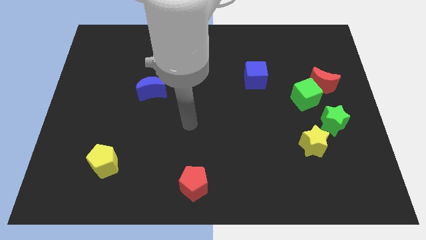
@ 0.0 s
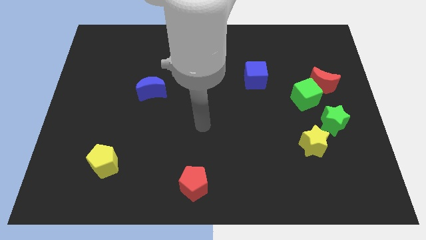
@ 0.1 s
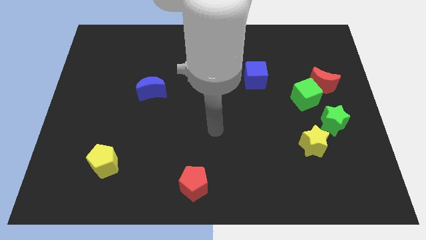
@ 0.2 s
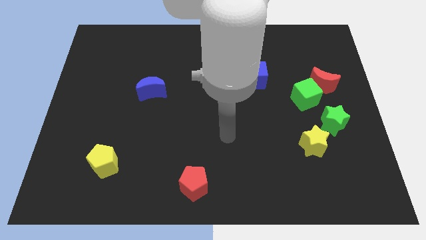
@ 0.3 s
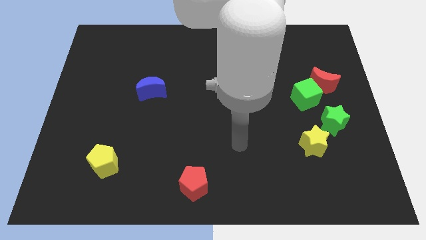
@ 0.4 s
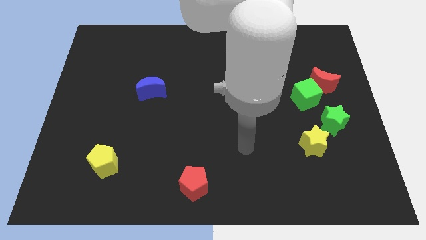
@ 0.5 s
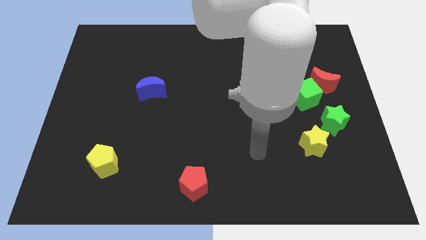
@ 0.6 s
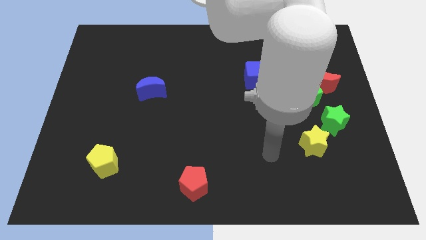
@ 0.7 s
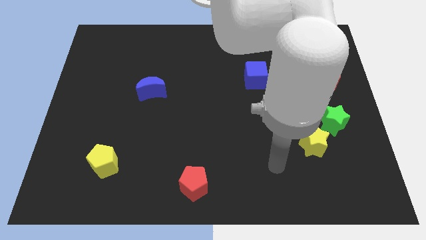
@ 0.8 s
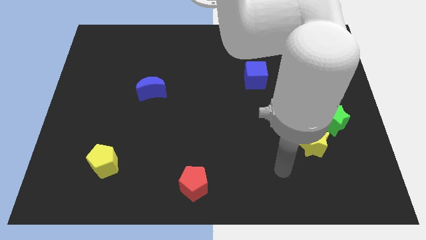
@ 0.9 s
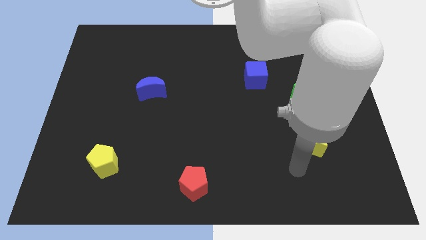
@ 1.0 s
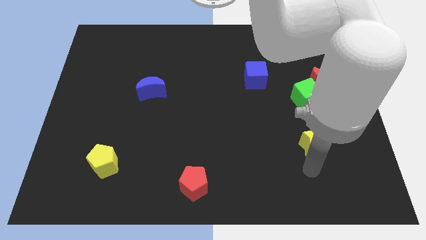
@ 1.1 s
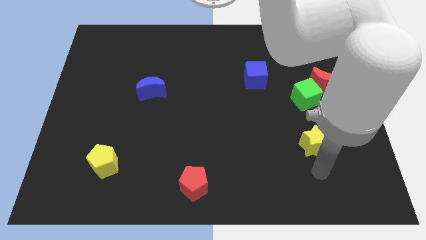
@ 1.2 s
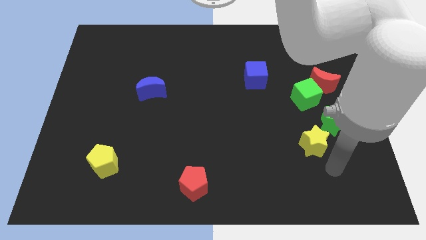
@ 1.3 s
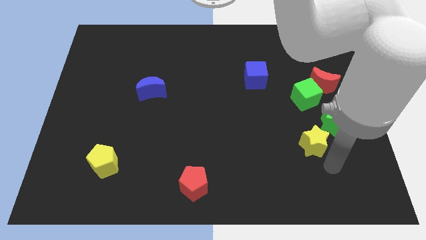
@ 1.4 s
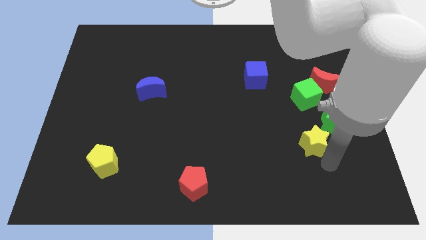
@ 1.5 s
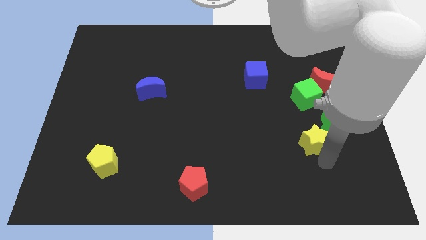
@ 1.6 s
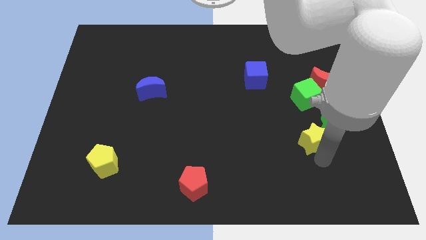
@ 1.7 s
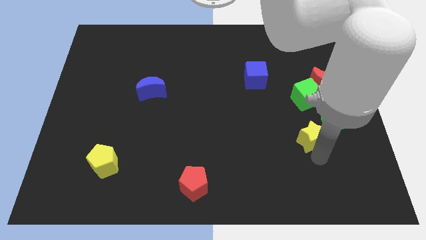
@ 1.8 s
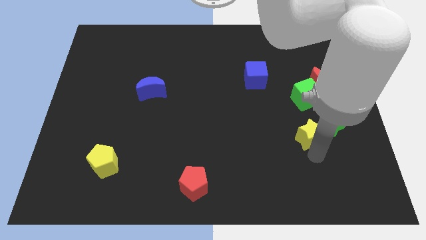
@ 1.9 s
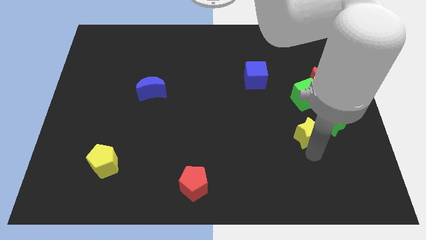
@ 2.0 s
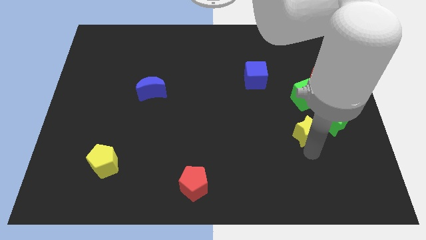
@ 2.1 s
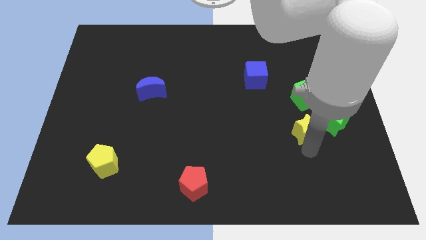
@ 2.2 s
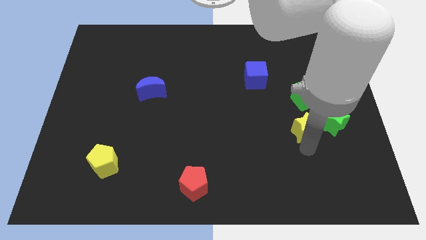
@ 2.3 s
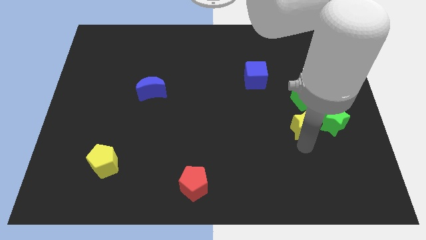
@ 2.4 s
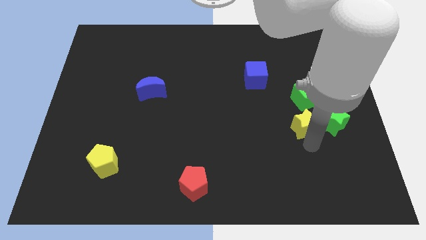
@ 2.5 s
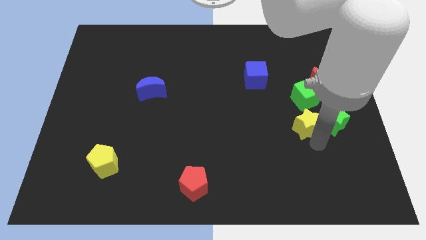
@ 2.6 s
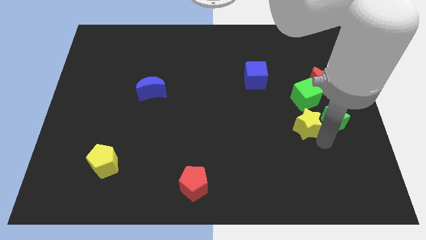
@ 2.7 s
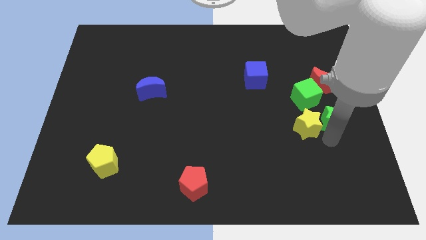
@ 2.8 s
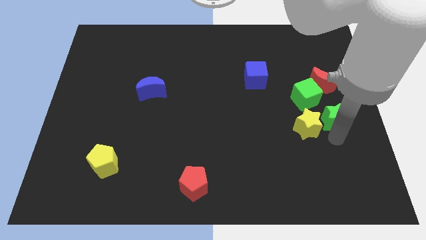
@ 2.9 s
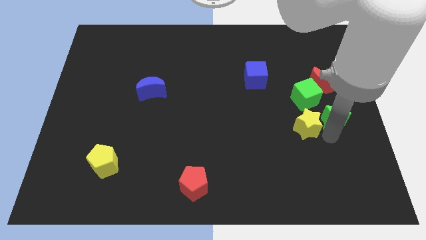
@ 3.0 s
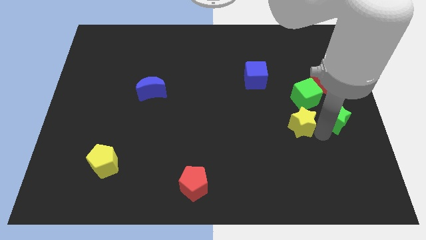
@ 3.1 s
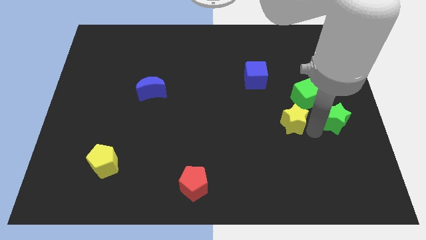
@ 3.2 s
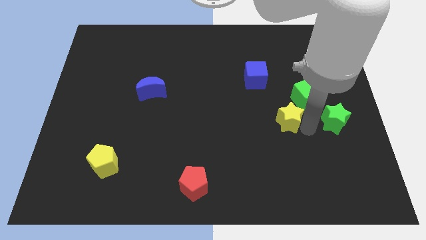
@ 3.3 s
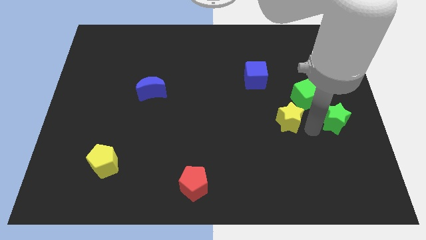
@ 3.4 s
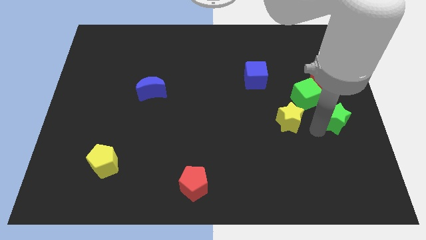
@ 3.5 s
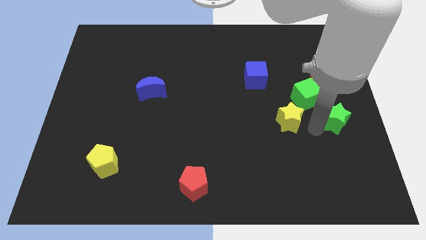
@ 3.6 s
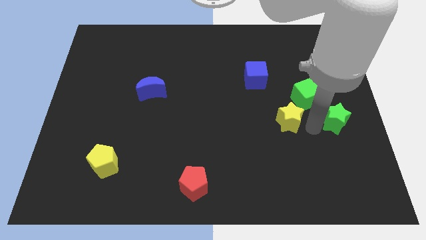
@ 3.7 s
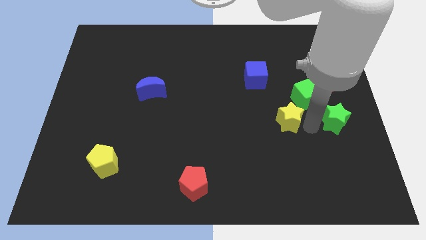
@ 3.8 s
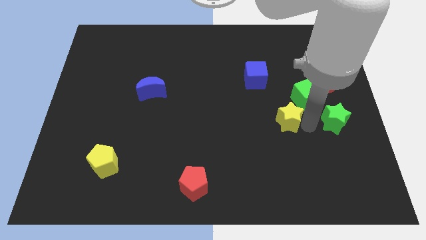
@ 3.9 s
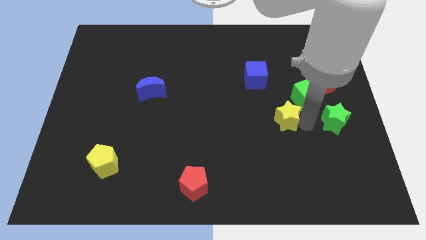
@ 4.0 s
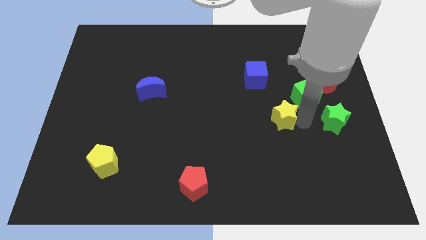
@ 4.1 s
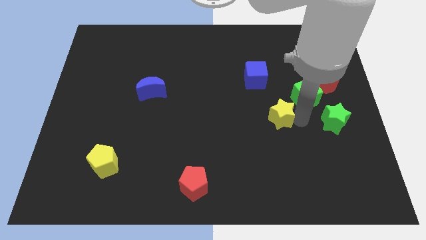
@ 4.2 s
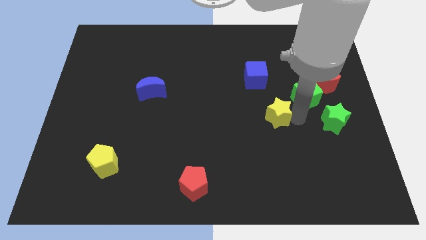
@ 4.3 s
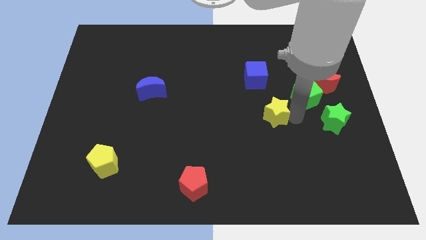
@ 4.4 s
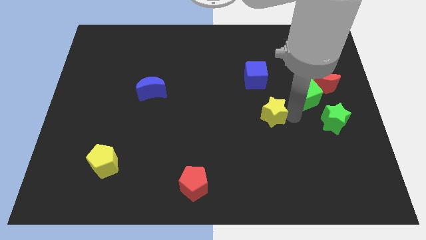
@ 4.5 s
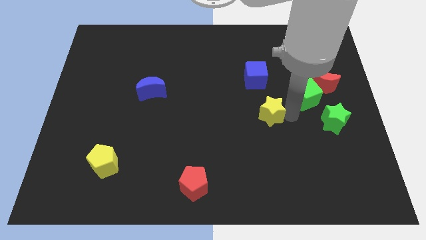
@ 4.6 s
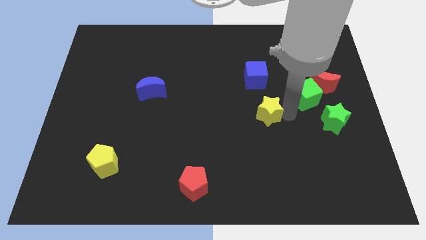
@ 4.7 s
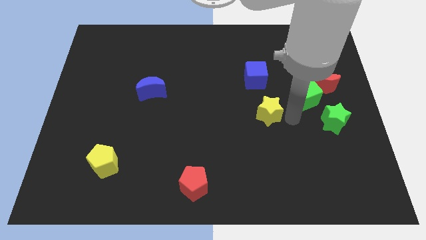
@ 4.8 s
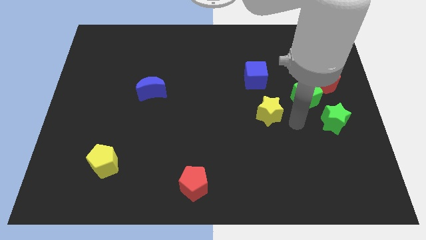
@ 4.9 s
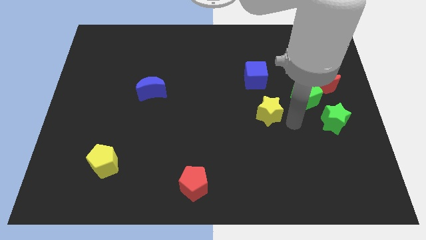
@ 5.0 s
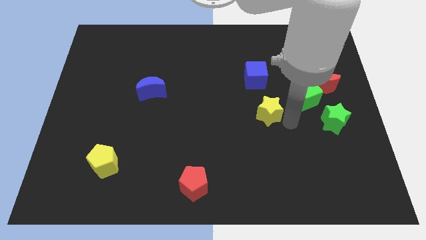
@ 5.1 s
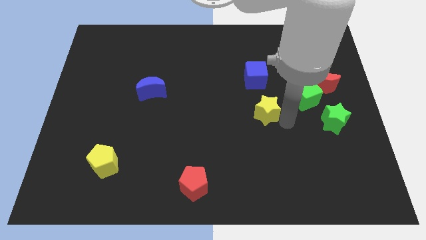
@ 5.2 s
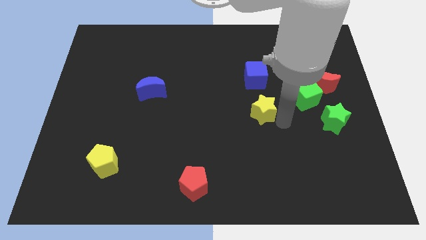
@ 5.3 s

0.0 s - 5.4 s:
push the yellow star to the center of the board

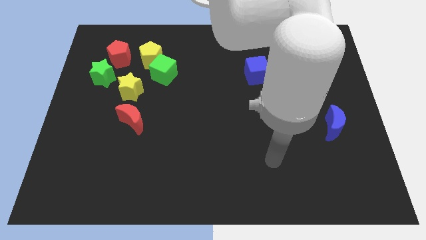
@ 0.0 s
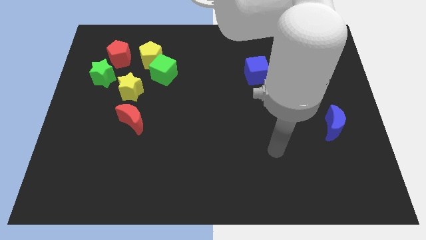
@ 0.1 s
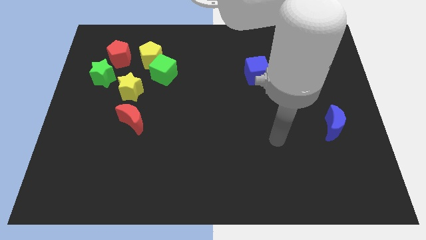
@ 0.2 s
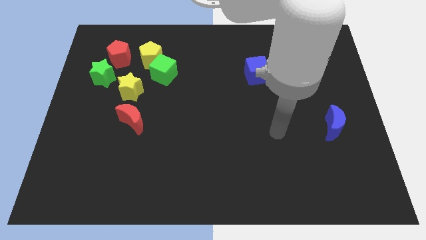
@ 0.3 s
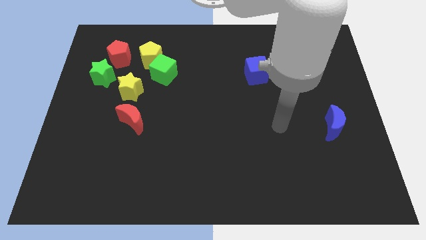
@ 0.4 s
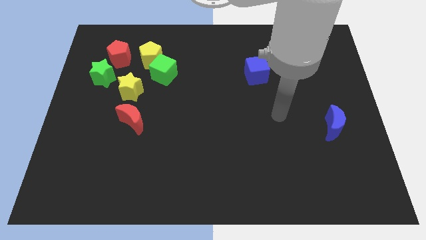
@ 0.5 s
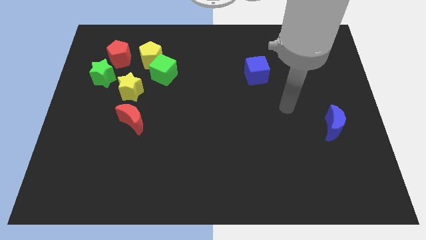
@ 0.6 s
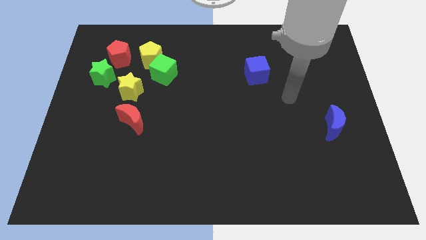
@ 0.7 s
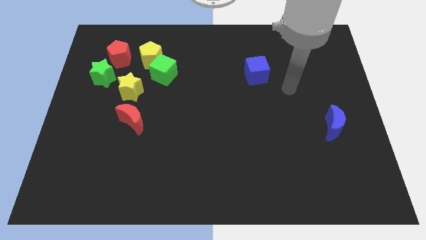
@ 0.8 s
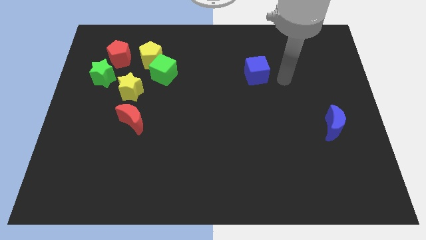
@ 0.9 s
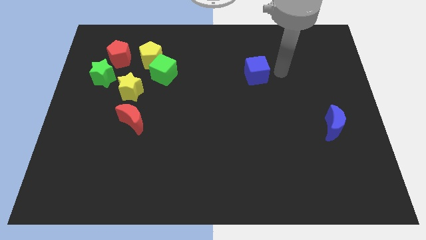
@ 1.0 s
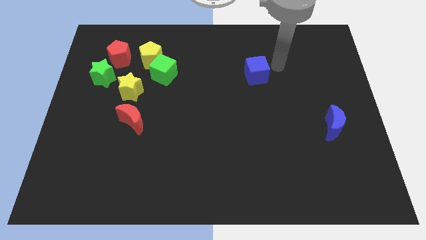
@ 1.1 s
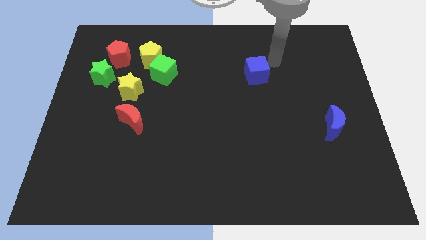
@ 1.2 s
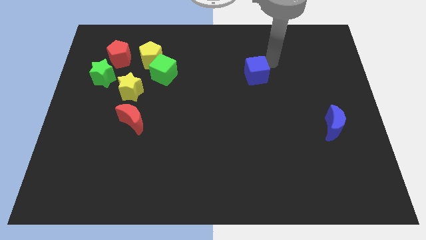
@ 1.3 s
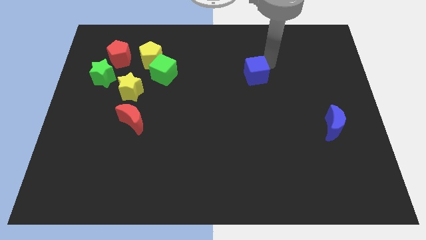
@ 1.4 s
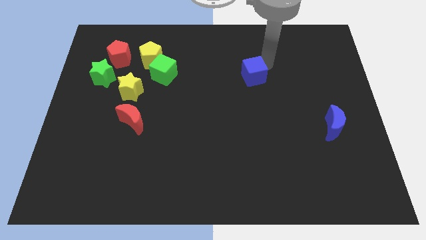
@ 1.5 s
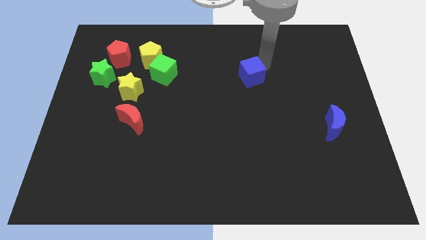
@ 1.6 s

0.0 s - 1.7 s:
move the blue cube to the center of the board

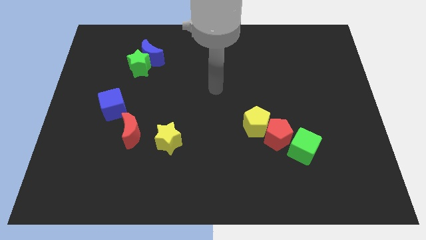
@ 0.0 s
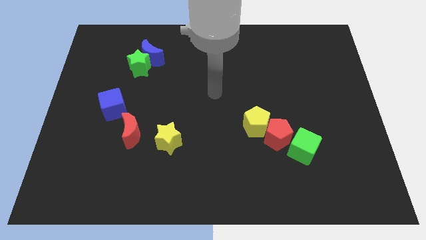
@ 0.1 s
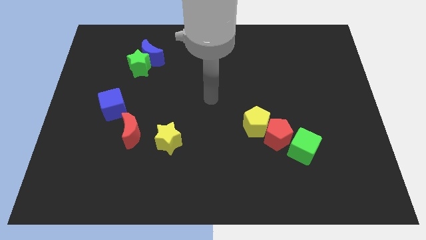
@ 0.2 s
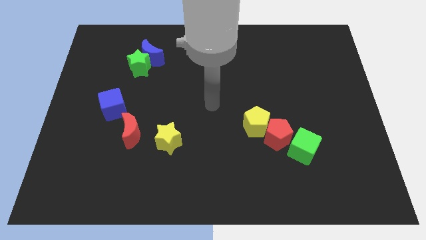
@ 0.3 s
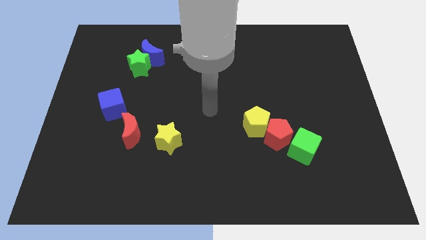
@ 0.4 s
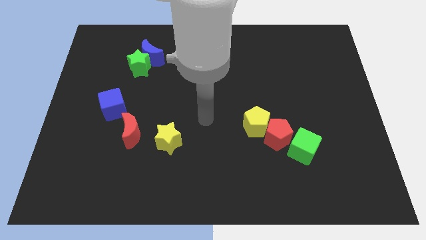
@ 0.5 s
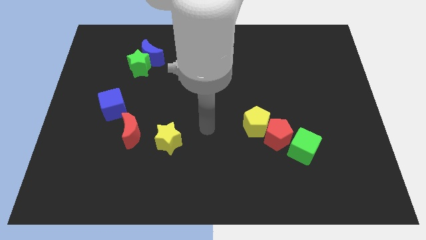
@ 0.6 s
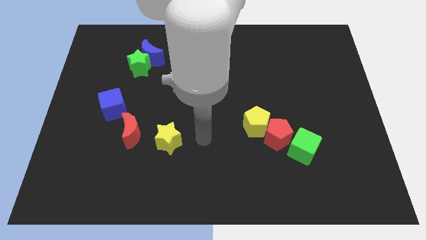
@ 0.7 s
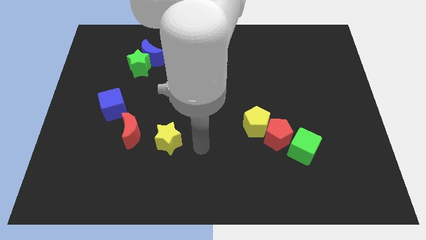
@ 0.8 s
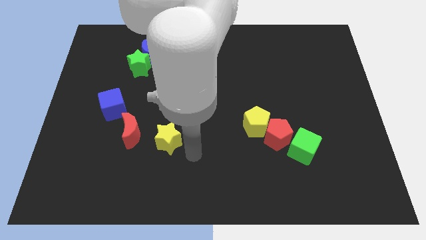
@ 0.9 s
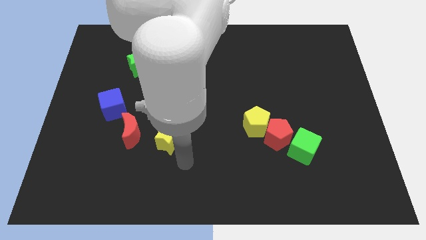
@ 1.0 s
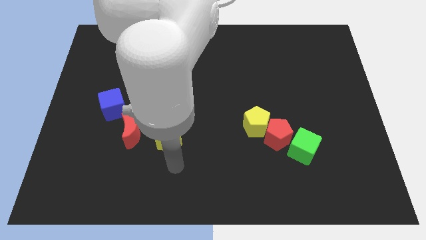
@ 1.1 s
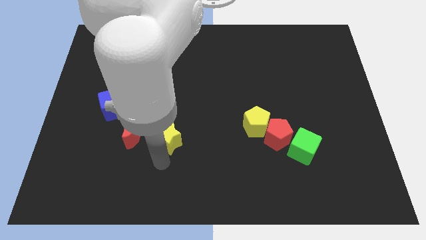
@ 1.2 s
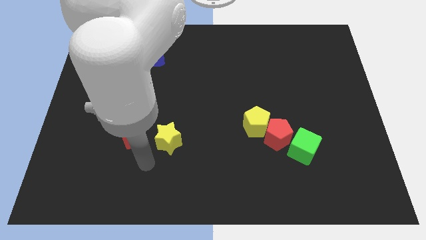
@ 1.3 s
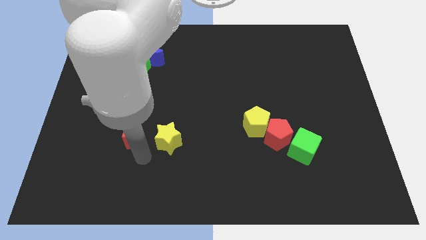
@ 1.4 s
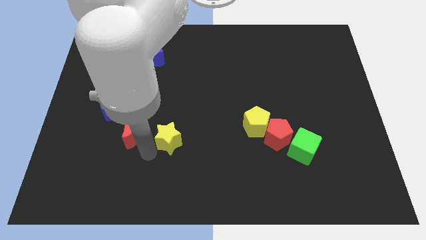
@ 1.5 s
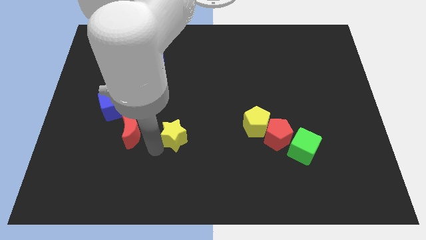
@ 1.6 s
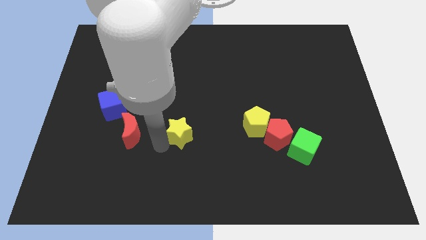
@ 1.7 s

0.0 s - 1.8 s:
slide the yellow star to the middle
